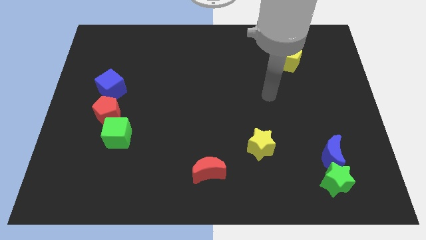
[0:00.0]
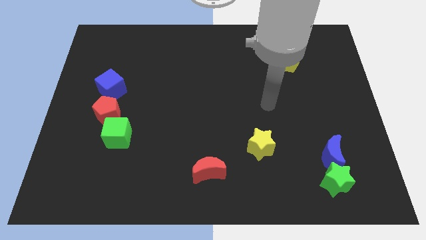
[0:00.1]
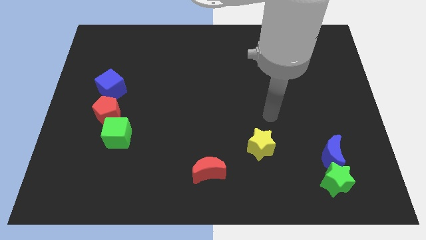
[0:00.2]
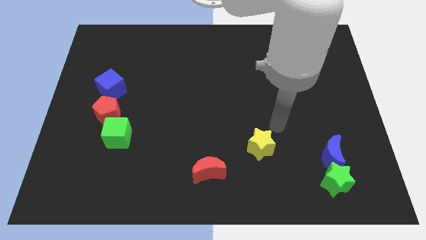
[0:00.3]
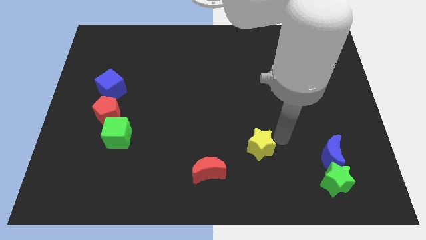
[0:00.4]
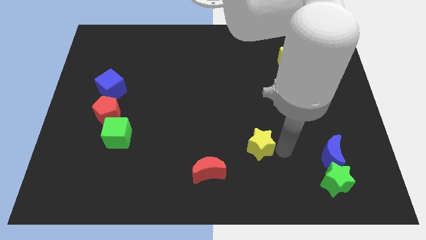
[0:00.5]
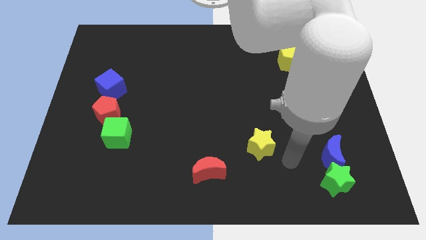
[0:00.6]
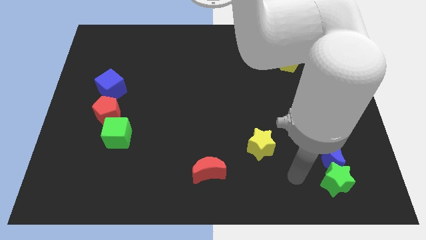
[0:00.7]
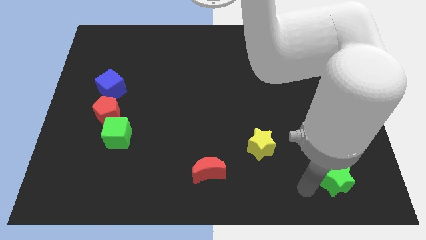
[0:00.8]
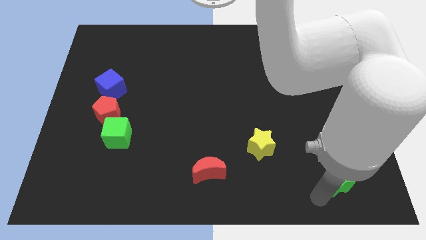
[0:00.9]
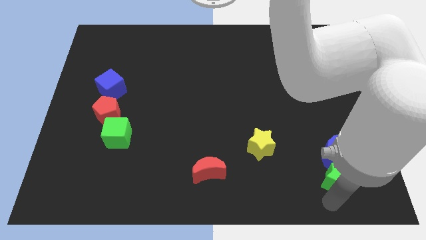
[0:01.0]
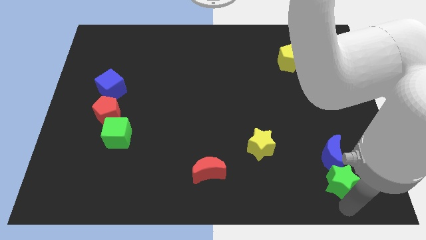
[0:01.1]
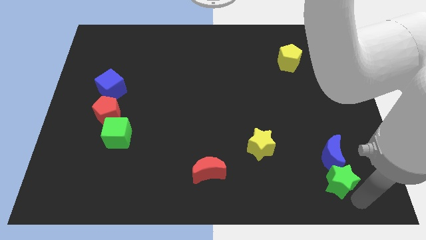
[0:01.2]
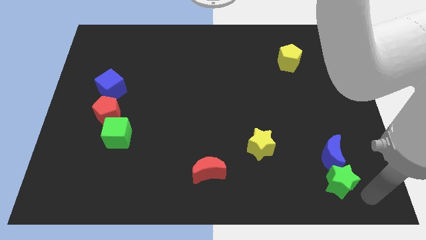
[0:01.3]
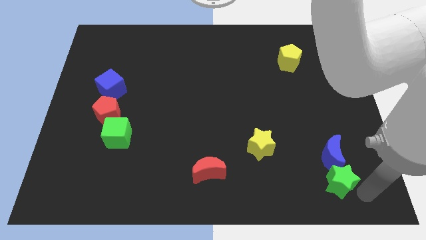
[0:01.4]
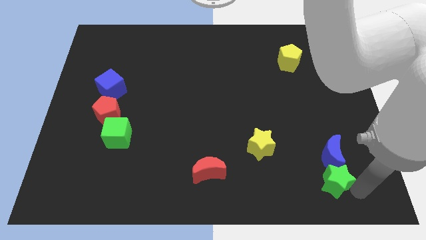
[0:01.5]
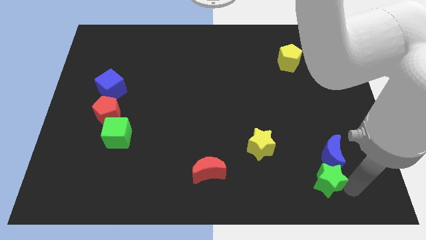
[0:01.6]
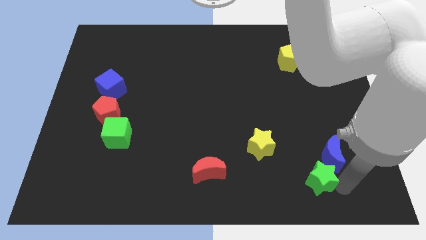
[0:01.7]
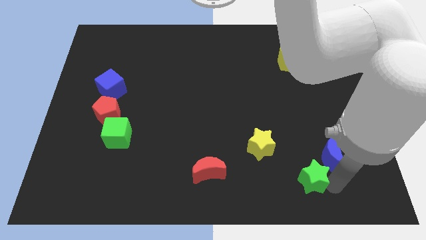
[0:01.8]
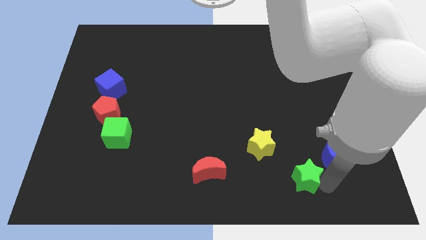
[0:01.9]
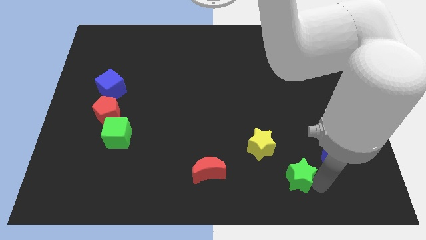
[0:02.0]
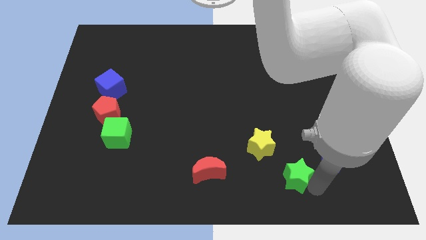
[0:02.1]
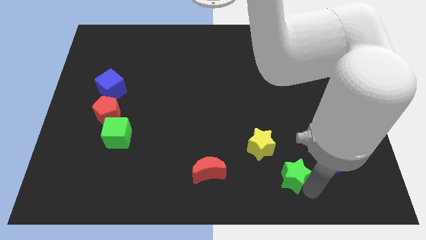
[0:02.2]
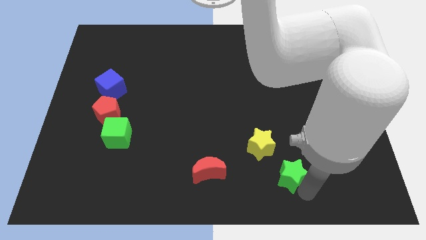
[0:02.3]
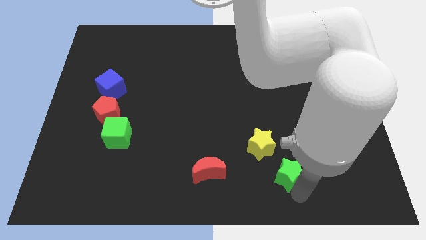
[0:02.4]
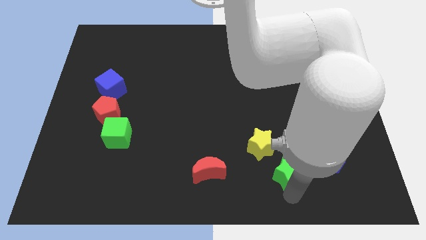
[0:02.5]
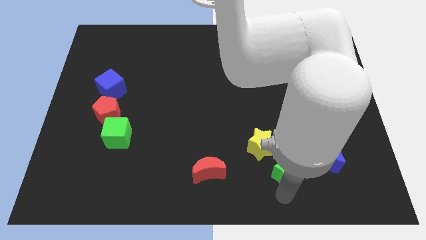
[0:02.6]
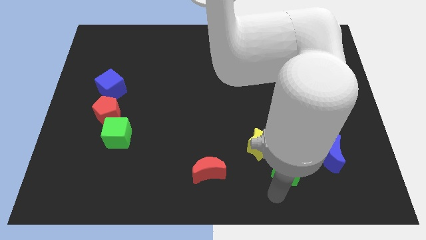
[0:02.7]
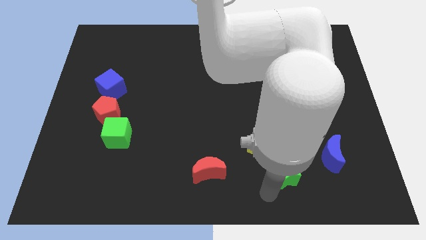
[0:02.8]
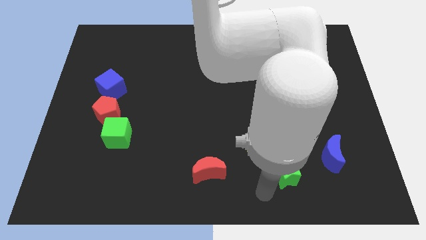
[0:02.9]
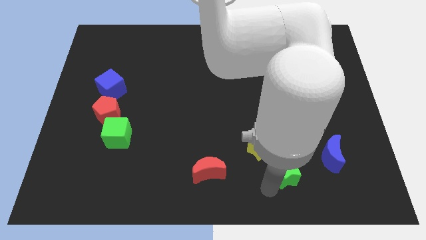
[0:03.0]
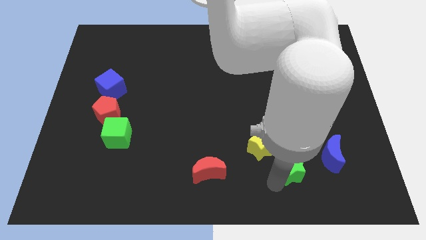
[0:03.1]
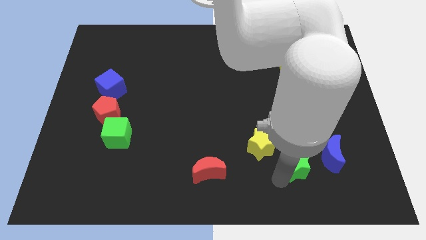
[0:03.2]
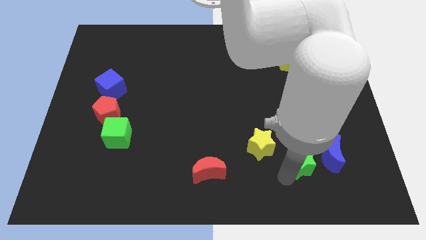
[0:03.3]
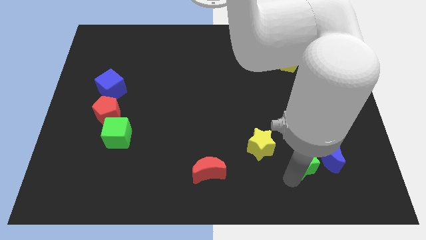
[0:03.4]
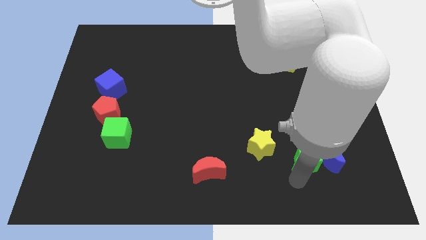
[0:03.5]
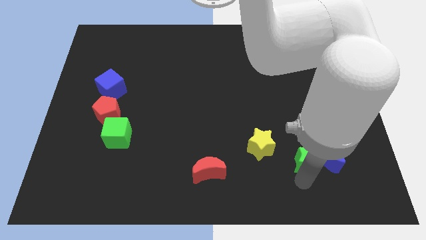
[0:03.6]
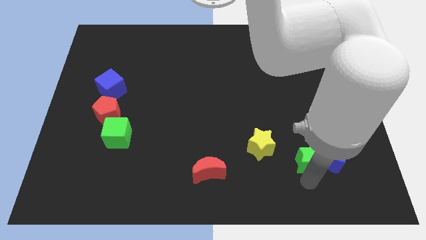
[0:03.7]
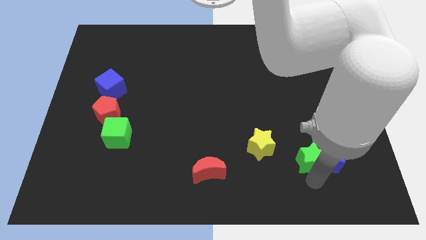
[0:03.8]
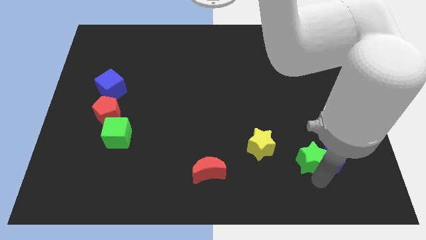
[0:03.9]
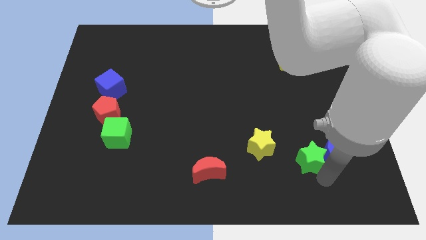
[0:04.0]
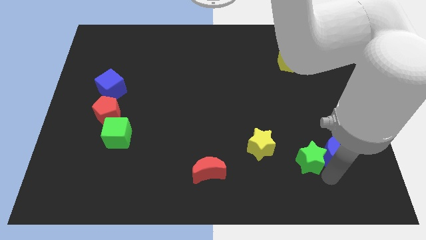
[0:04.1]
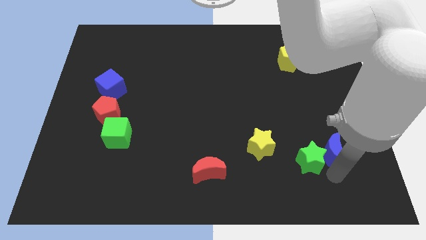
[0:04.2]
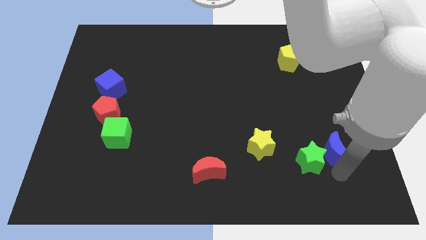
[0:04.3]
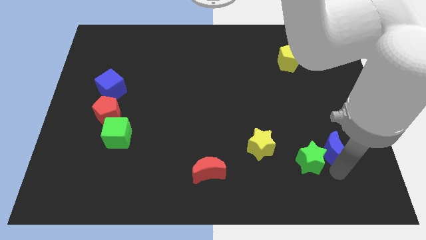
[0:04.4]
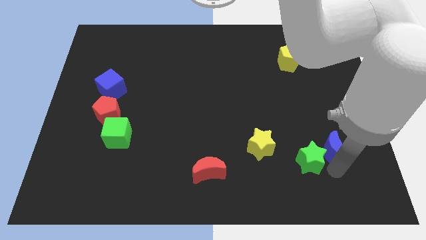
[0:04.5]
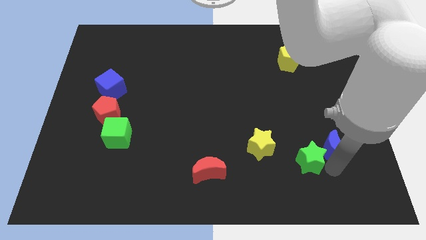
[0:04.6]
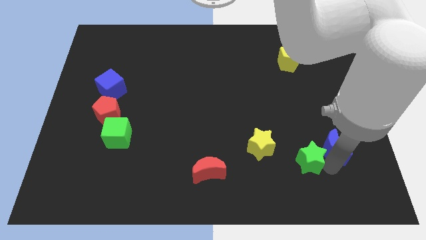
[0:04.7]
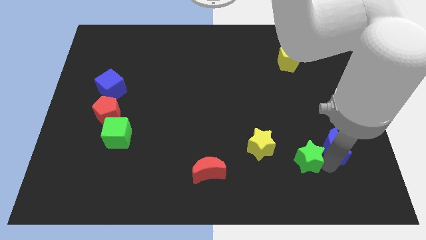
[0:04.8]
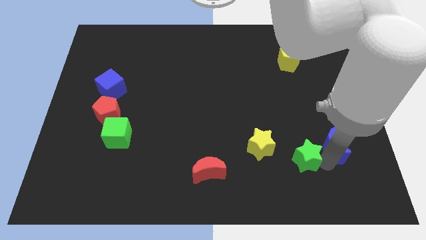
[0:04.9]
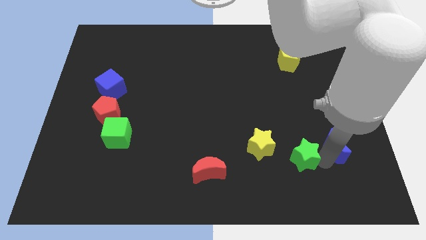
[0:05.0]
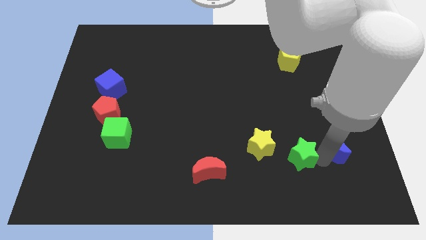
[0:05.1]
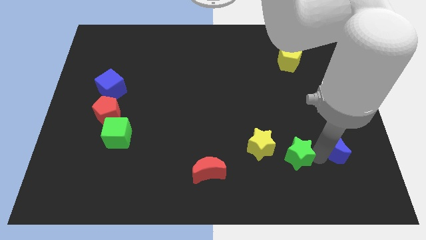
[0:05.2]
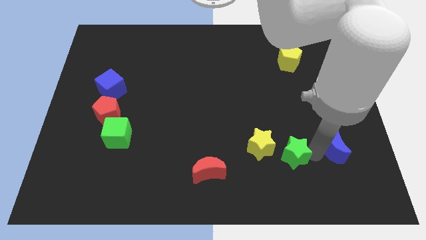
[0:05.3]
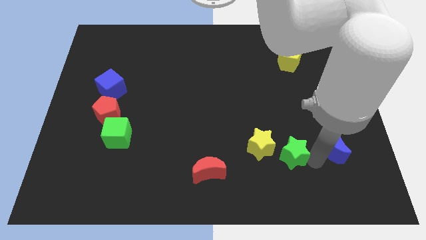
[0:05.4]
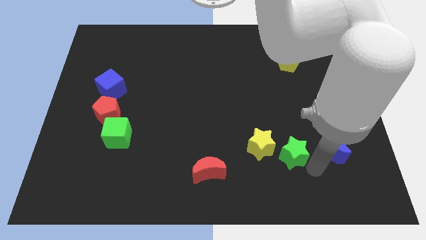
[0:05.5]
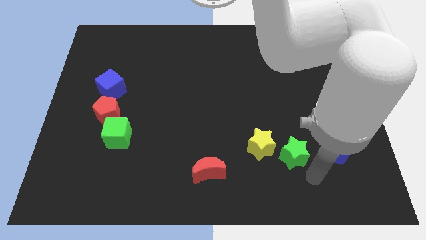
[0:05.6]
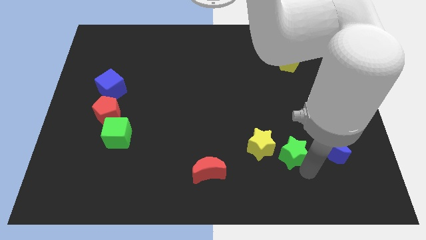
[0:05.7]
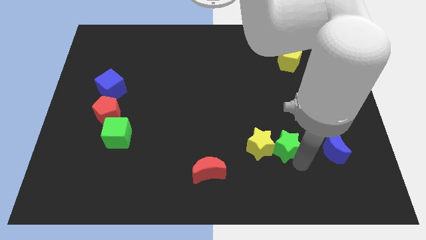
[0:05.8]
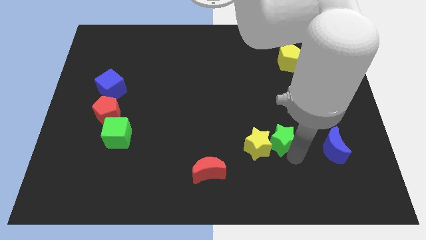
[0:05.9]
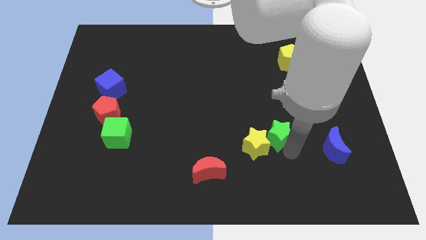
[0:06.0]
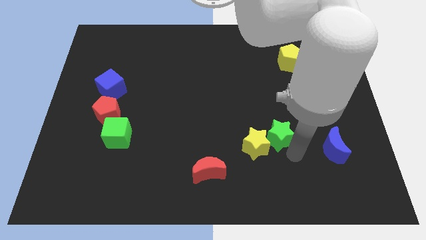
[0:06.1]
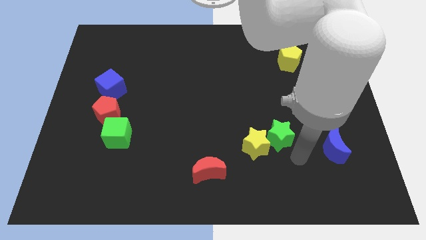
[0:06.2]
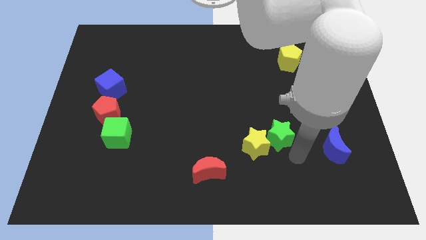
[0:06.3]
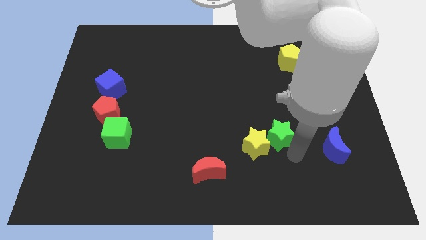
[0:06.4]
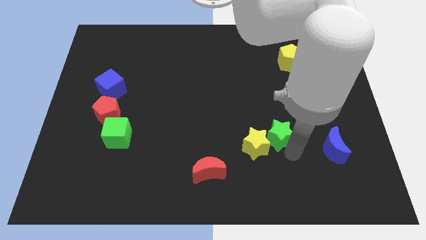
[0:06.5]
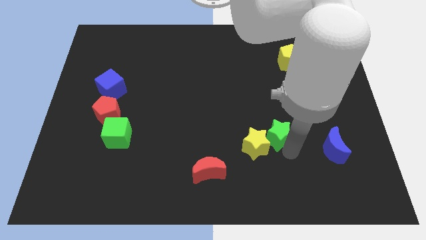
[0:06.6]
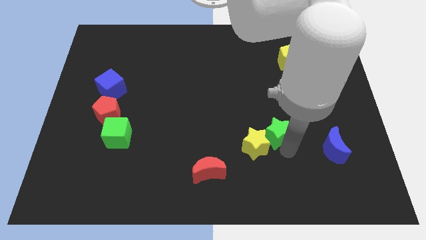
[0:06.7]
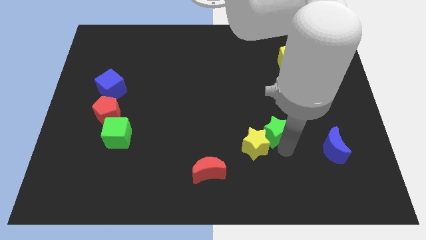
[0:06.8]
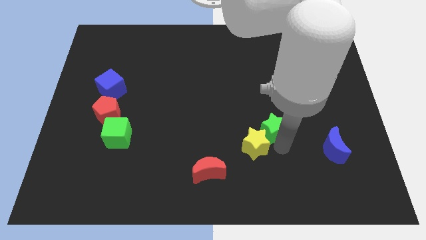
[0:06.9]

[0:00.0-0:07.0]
slide the green star above the yellow star

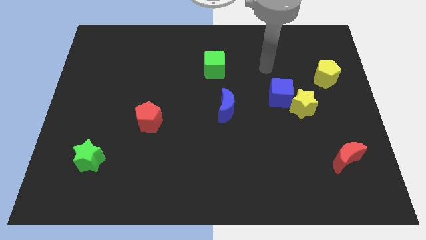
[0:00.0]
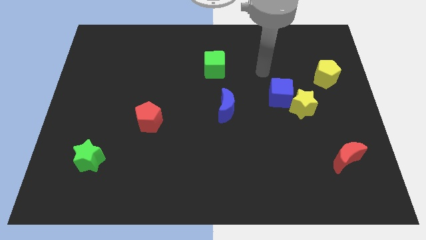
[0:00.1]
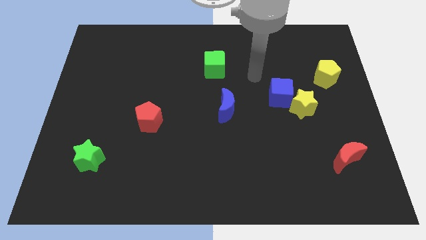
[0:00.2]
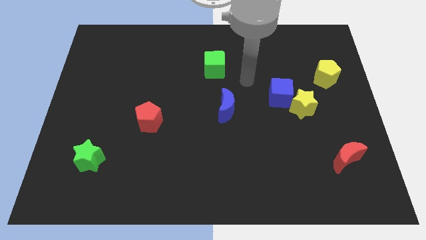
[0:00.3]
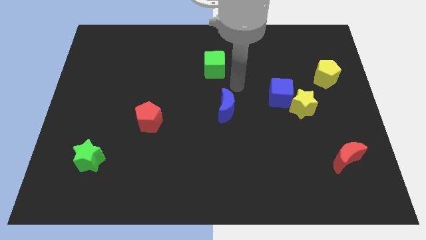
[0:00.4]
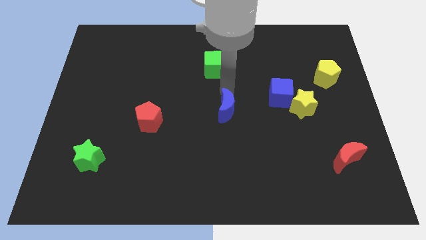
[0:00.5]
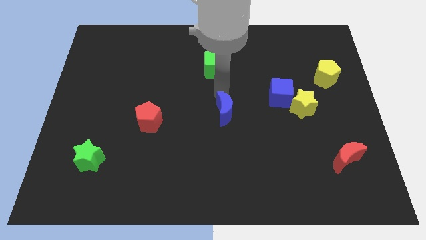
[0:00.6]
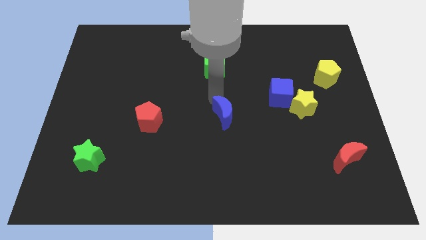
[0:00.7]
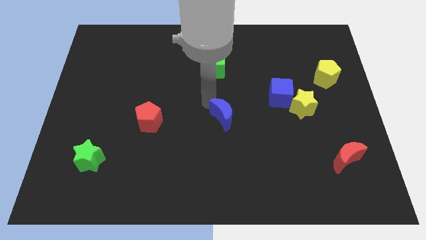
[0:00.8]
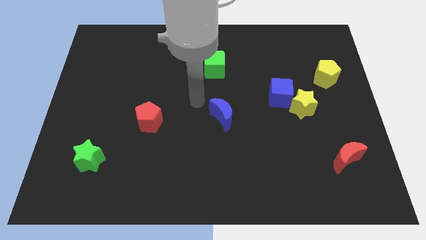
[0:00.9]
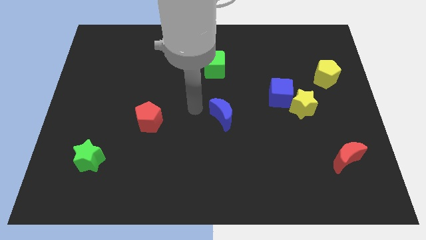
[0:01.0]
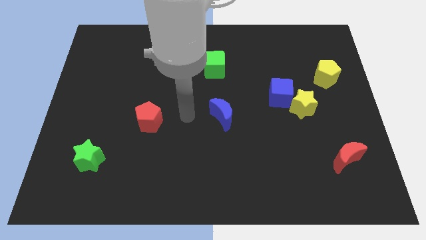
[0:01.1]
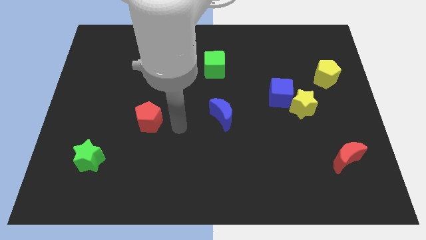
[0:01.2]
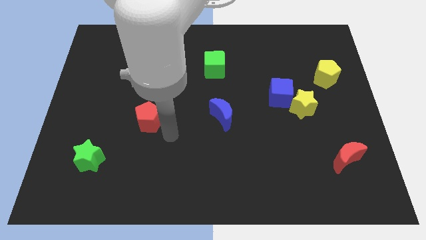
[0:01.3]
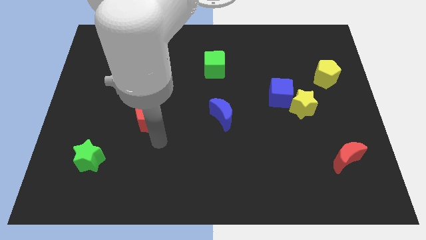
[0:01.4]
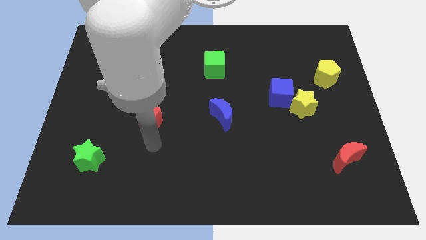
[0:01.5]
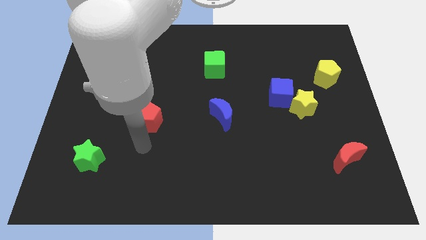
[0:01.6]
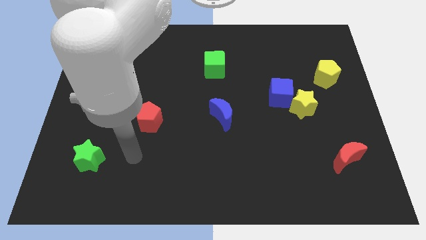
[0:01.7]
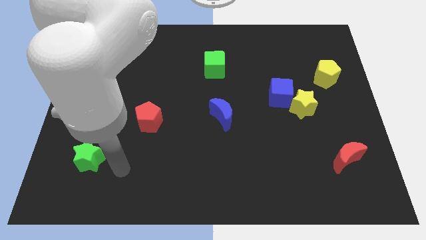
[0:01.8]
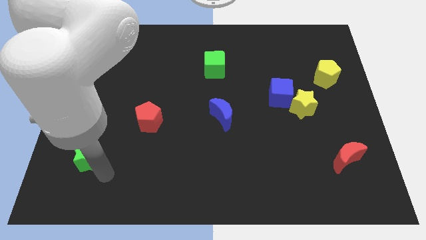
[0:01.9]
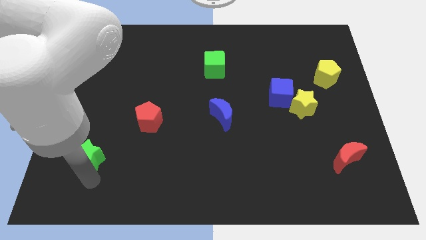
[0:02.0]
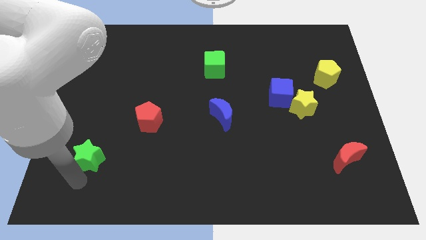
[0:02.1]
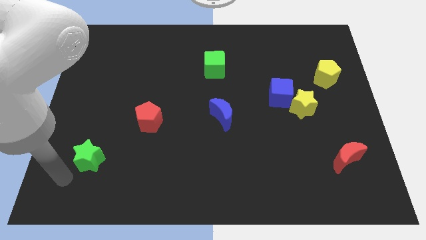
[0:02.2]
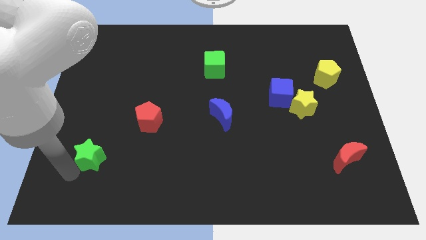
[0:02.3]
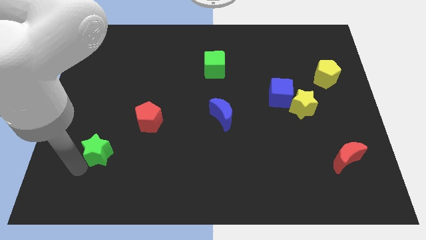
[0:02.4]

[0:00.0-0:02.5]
push the green star diagonally down and to the left of the red pentagon
